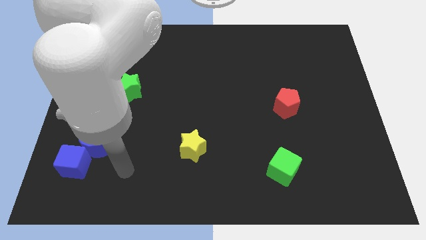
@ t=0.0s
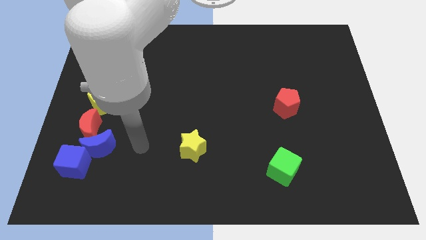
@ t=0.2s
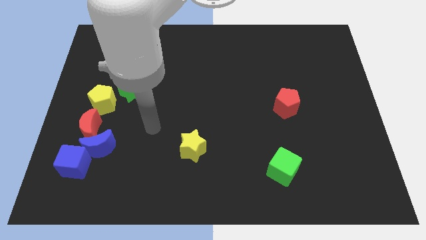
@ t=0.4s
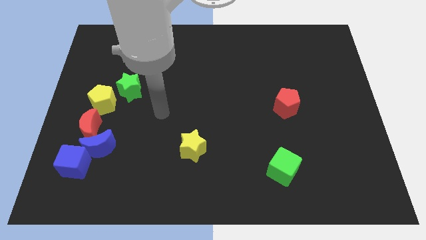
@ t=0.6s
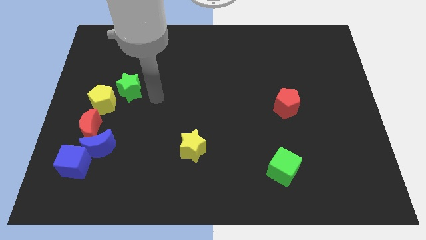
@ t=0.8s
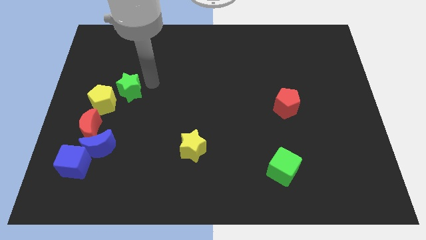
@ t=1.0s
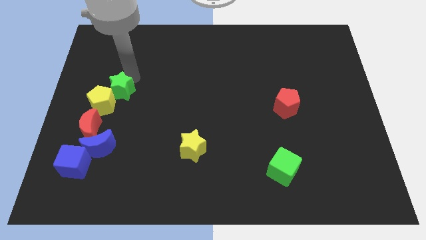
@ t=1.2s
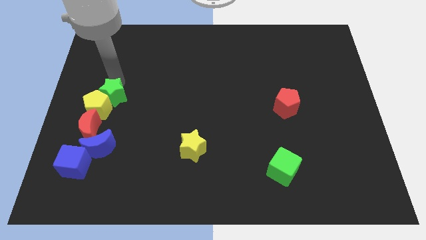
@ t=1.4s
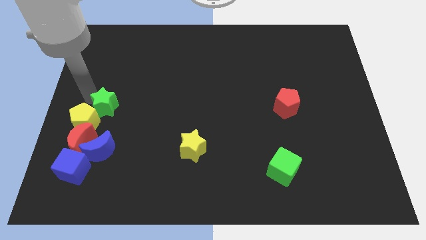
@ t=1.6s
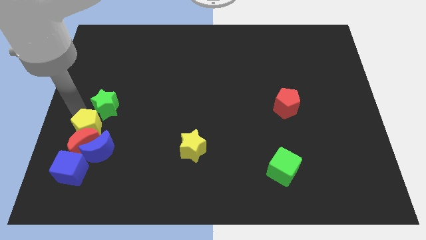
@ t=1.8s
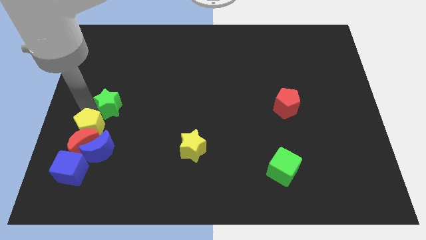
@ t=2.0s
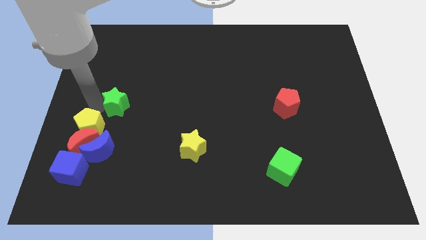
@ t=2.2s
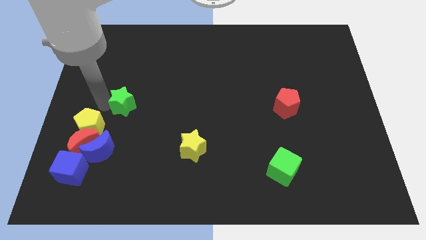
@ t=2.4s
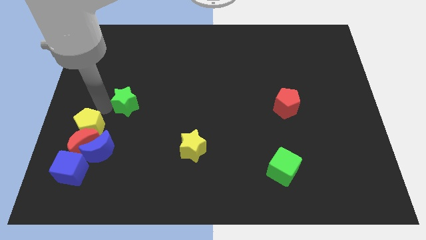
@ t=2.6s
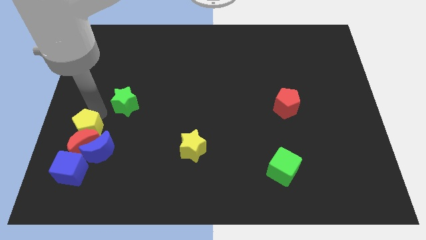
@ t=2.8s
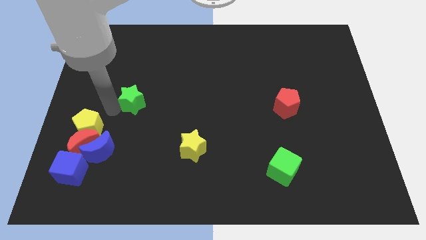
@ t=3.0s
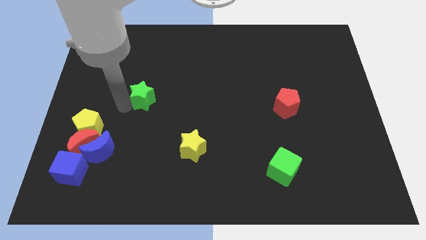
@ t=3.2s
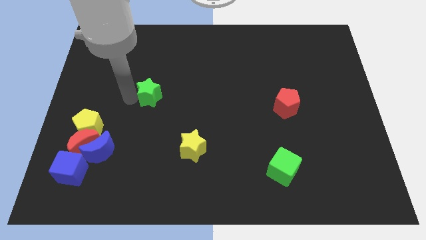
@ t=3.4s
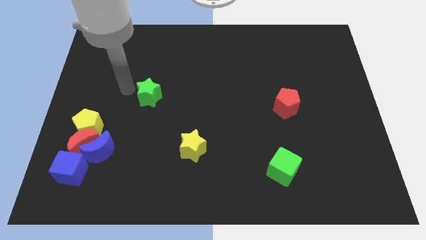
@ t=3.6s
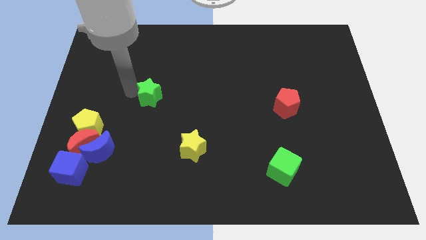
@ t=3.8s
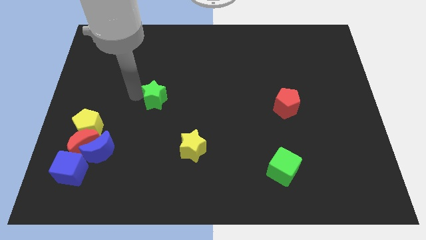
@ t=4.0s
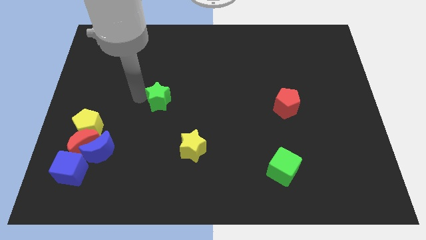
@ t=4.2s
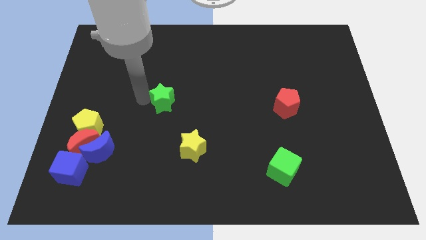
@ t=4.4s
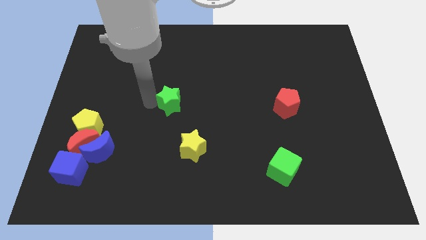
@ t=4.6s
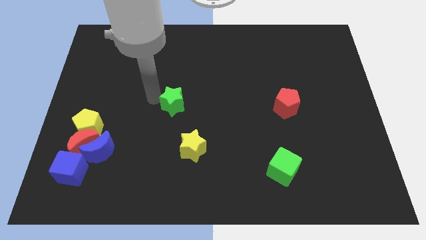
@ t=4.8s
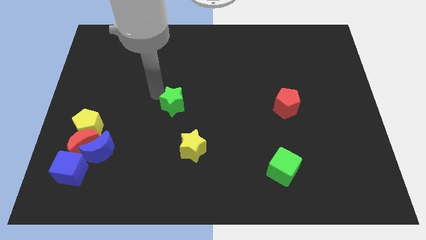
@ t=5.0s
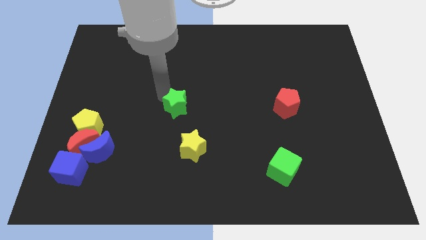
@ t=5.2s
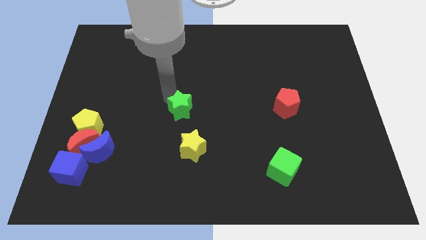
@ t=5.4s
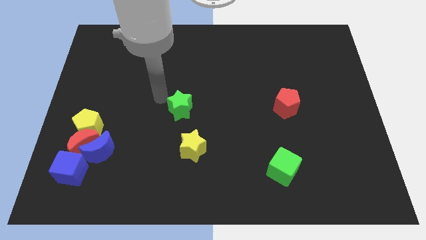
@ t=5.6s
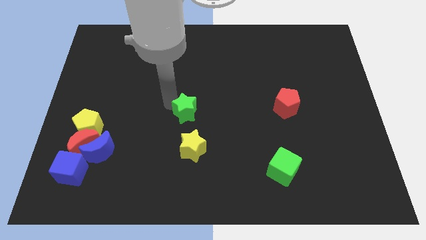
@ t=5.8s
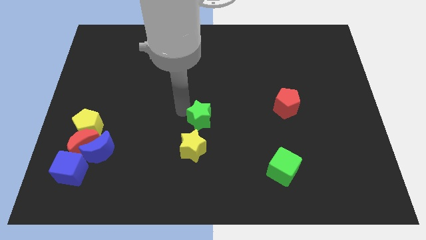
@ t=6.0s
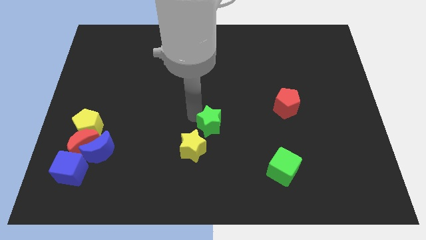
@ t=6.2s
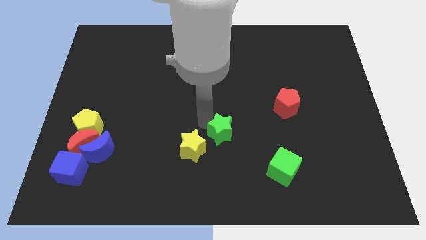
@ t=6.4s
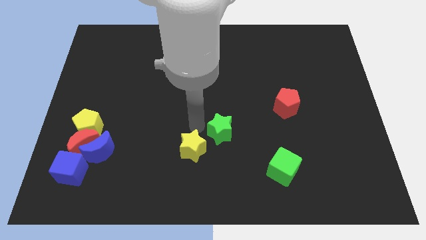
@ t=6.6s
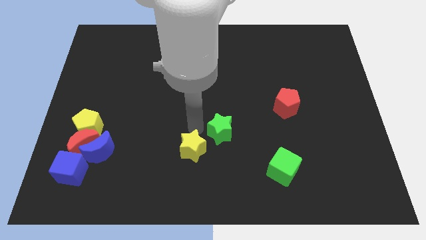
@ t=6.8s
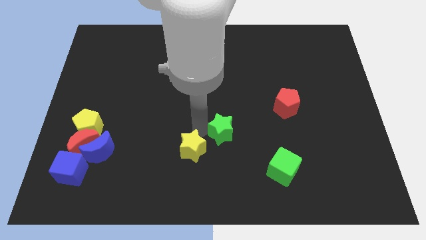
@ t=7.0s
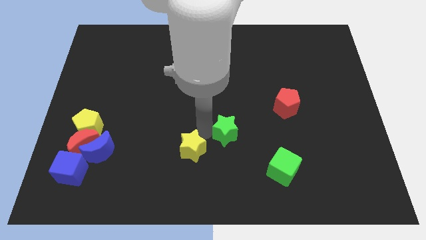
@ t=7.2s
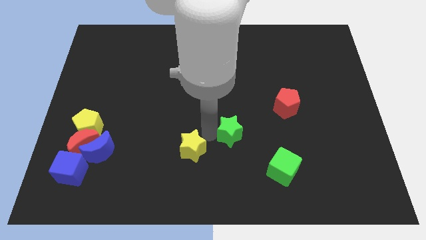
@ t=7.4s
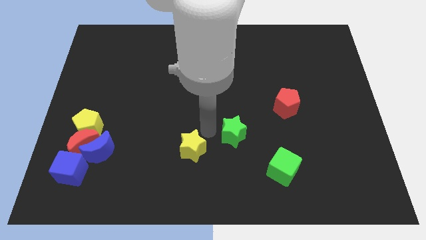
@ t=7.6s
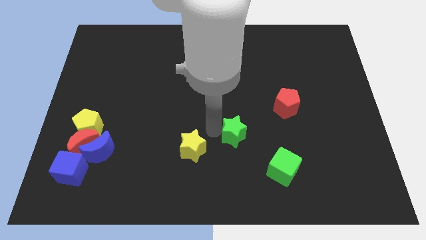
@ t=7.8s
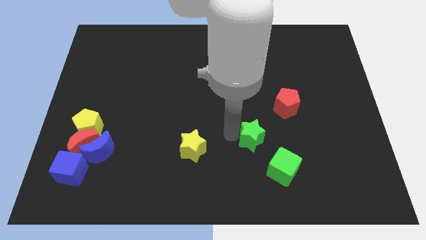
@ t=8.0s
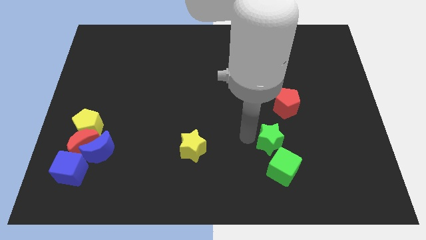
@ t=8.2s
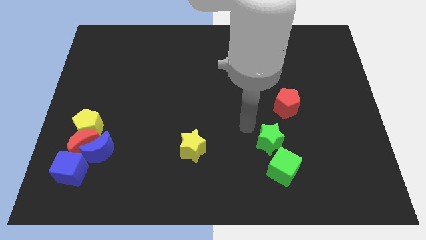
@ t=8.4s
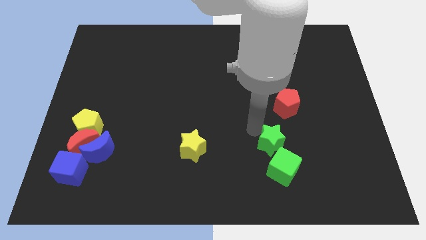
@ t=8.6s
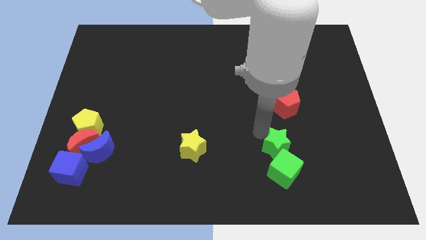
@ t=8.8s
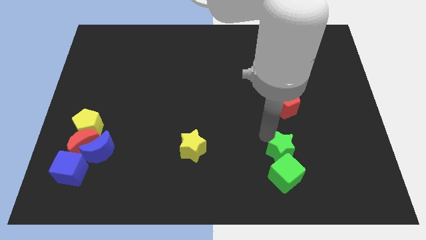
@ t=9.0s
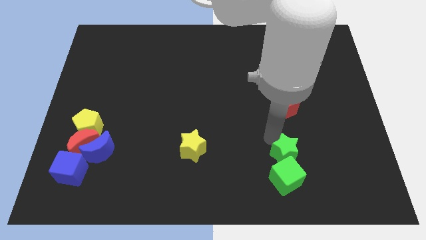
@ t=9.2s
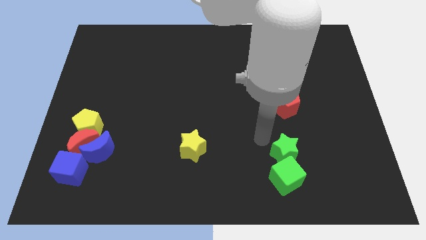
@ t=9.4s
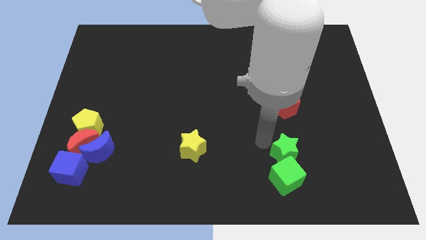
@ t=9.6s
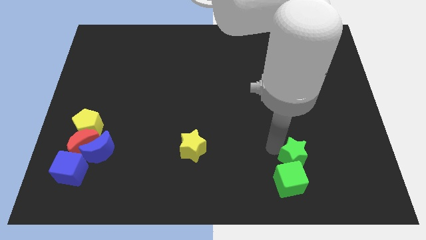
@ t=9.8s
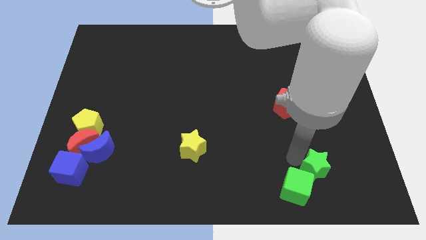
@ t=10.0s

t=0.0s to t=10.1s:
move the green star right of the green cube

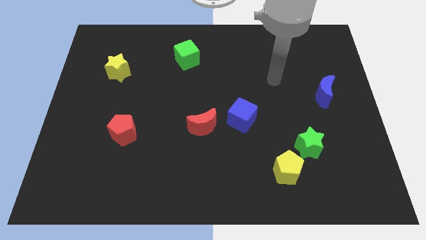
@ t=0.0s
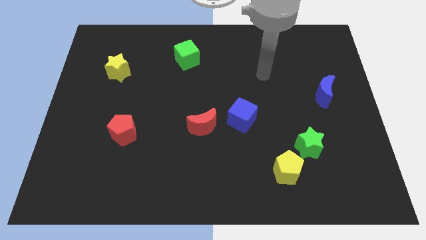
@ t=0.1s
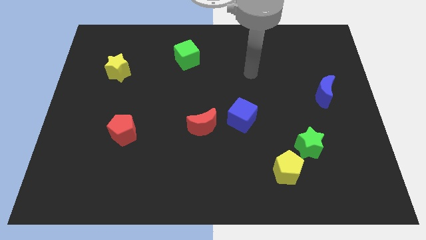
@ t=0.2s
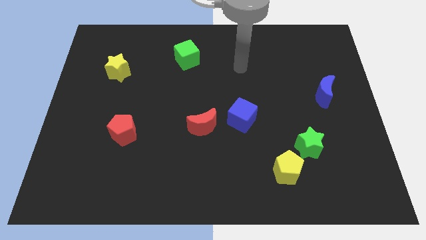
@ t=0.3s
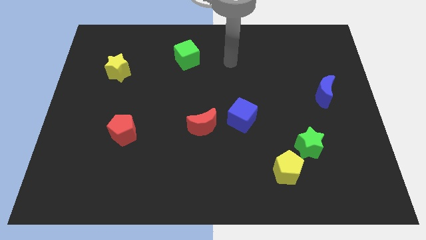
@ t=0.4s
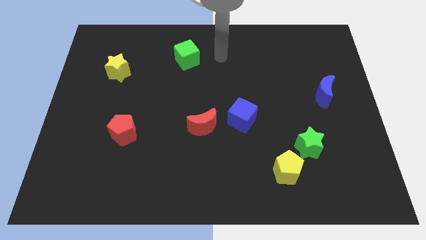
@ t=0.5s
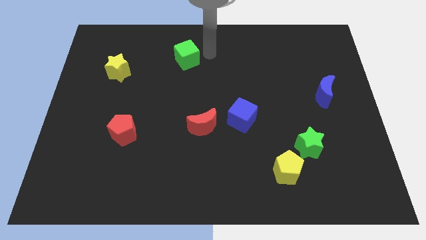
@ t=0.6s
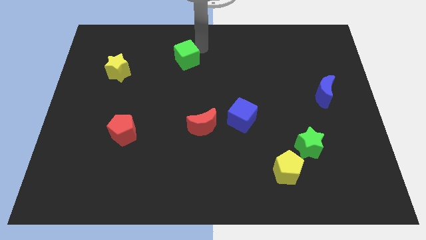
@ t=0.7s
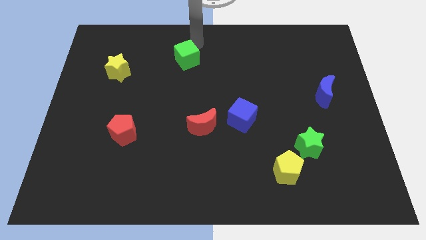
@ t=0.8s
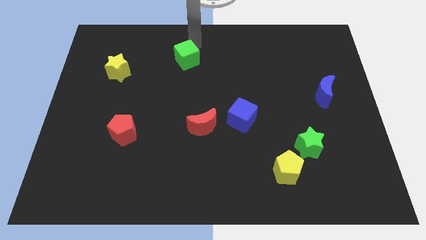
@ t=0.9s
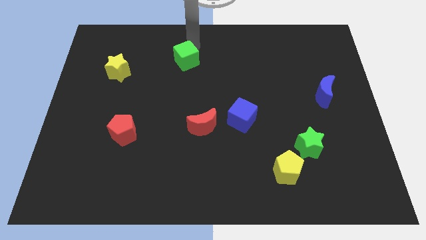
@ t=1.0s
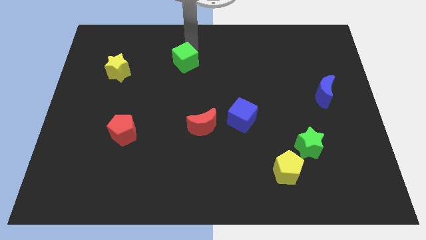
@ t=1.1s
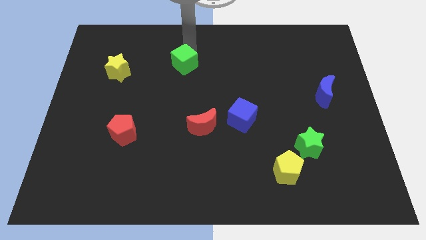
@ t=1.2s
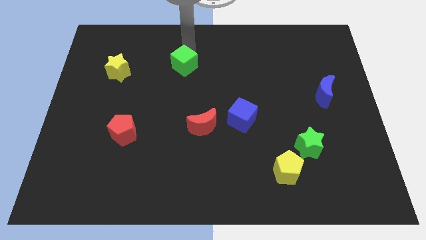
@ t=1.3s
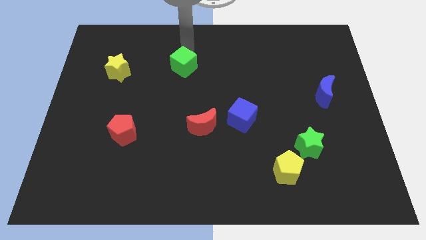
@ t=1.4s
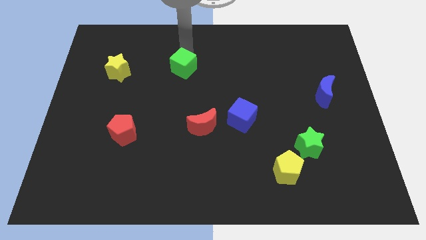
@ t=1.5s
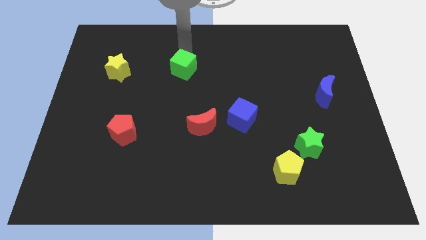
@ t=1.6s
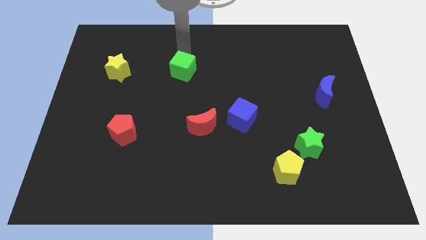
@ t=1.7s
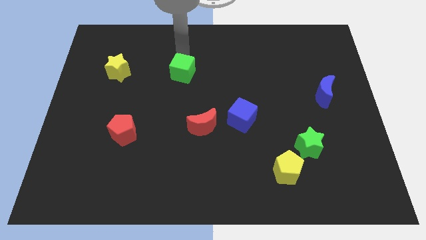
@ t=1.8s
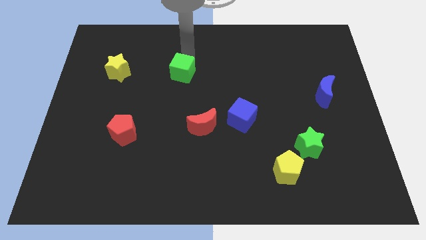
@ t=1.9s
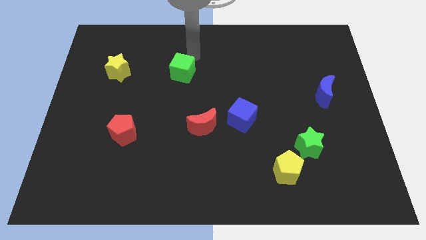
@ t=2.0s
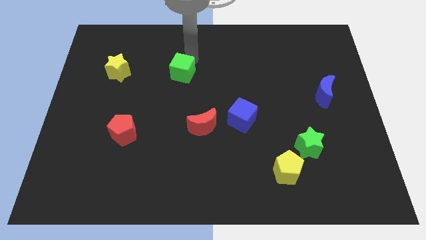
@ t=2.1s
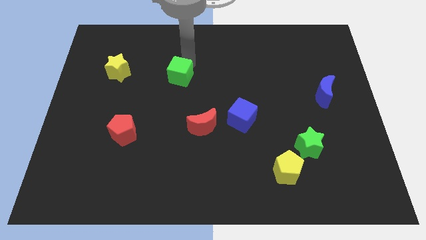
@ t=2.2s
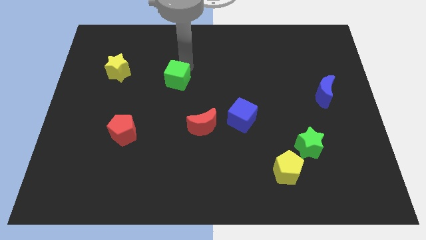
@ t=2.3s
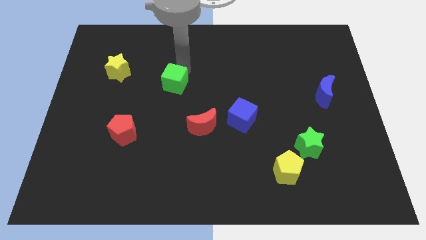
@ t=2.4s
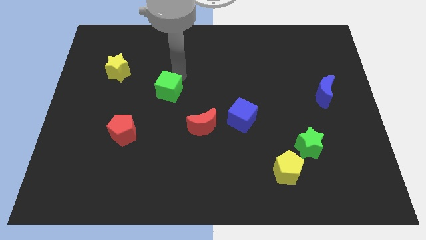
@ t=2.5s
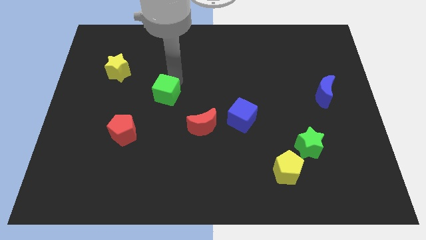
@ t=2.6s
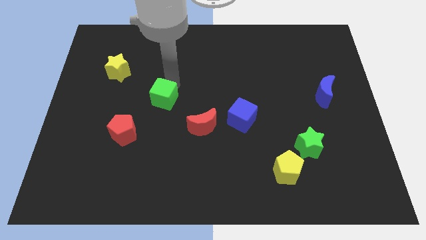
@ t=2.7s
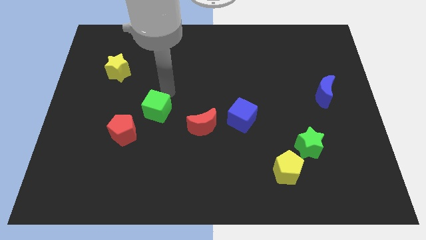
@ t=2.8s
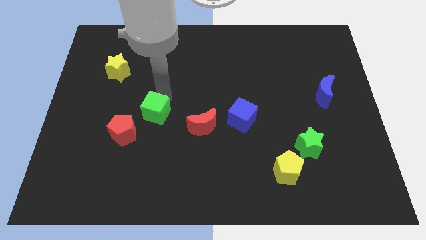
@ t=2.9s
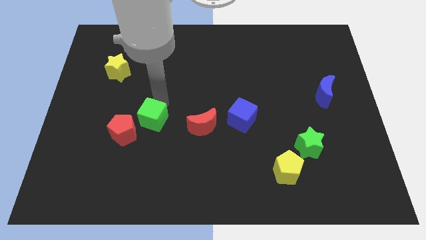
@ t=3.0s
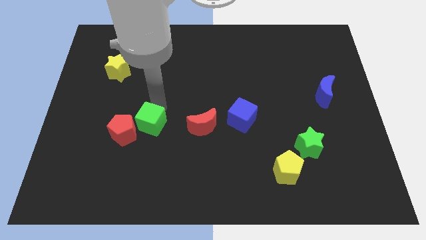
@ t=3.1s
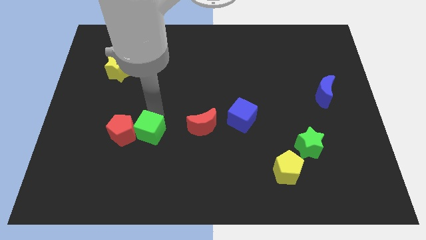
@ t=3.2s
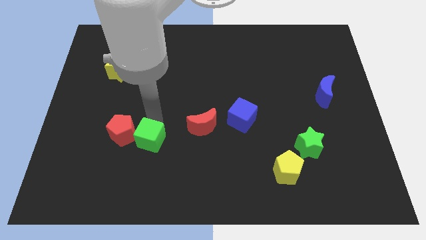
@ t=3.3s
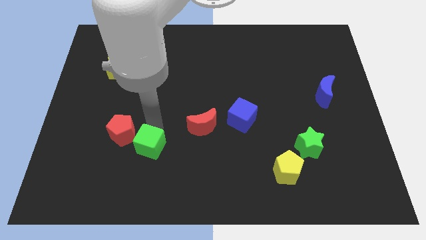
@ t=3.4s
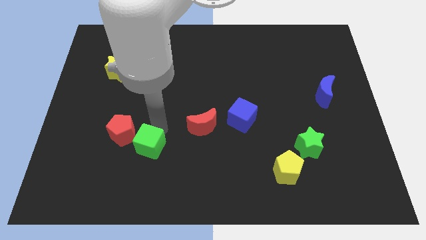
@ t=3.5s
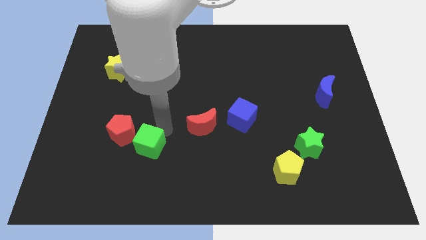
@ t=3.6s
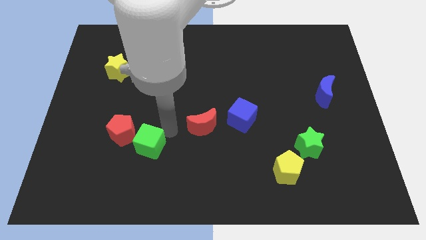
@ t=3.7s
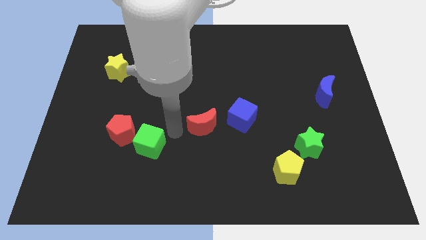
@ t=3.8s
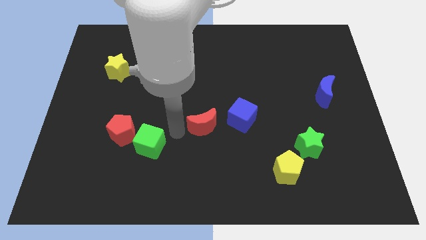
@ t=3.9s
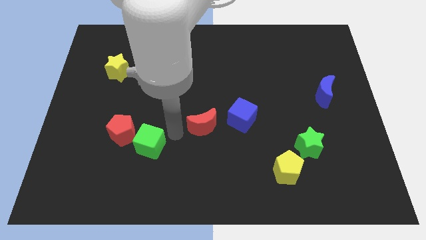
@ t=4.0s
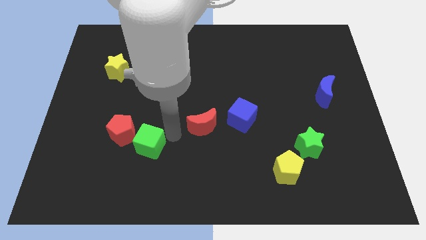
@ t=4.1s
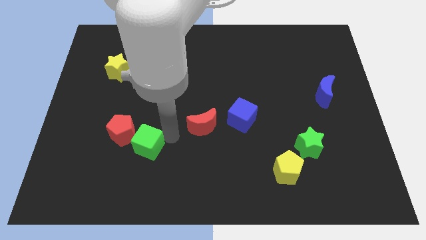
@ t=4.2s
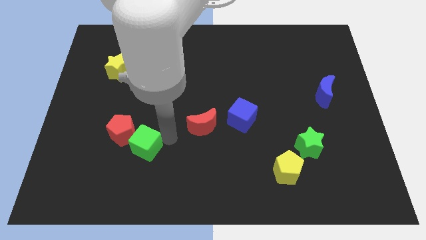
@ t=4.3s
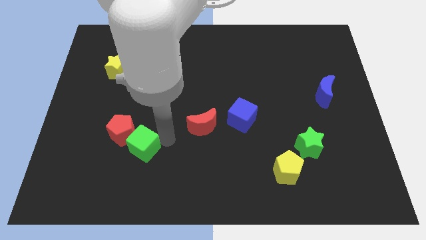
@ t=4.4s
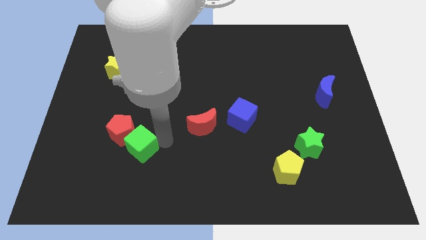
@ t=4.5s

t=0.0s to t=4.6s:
move the green cube below the red pentagon
